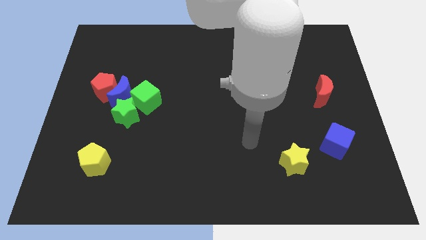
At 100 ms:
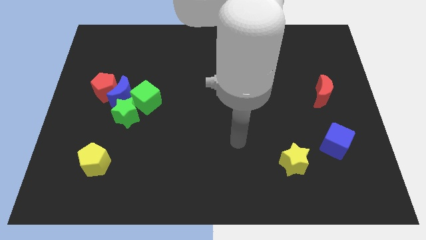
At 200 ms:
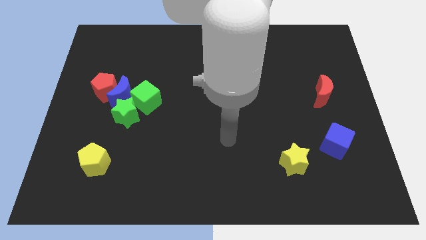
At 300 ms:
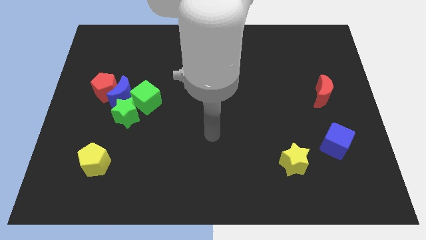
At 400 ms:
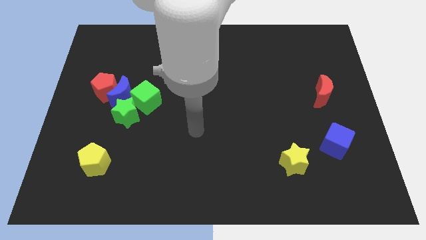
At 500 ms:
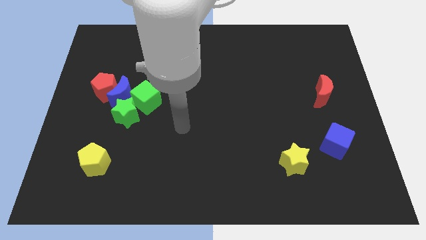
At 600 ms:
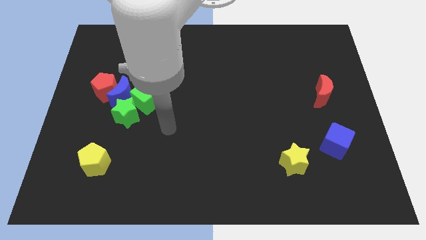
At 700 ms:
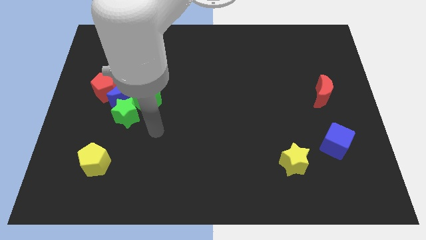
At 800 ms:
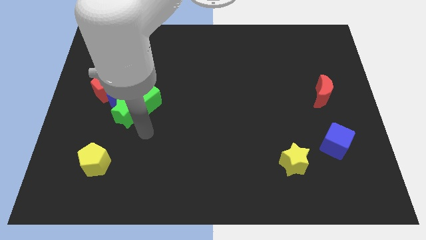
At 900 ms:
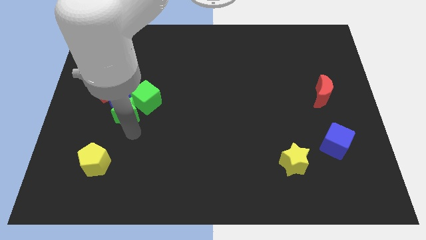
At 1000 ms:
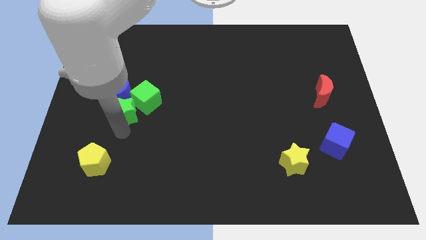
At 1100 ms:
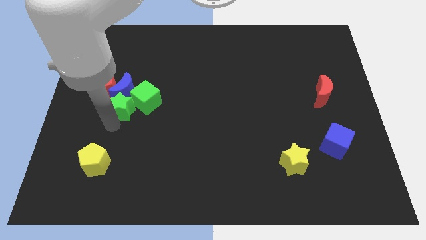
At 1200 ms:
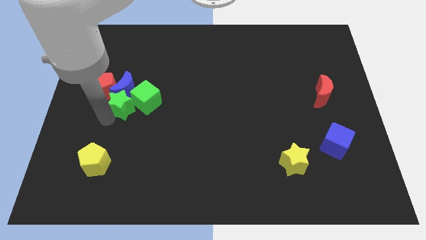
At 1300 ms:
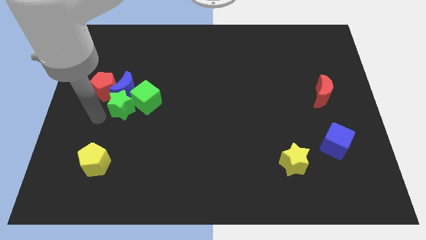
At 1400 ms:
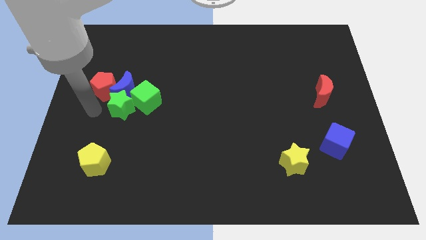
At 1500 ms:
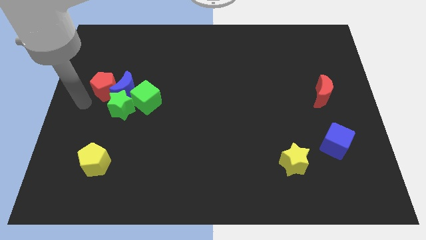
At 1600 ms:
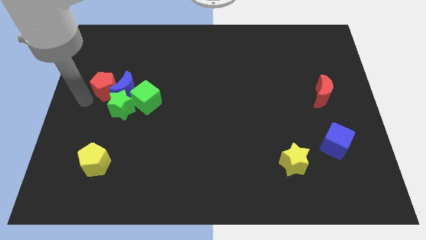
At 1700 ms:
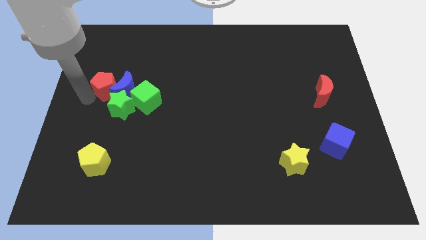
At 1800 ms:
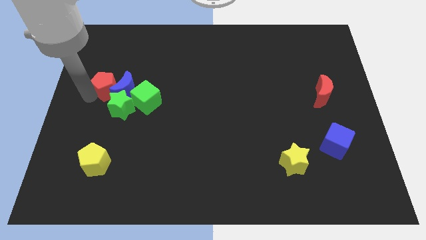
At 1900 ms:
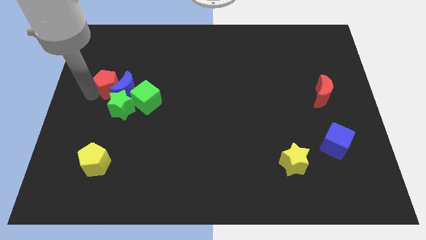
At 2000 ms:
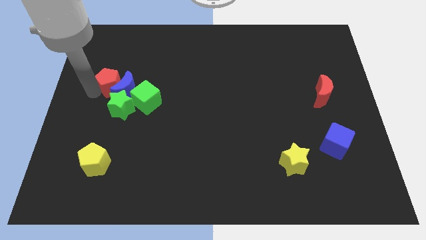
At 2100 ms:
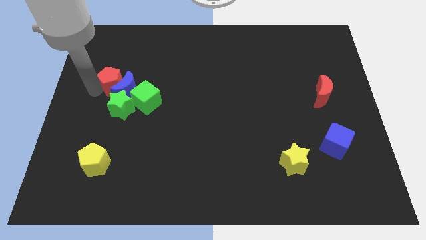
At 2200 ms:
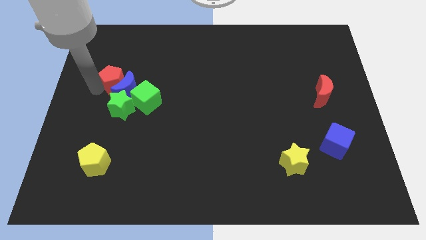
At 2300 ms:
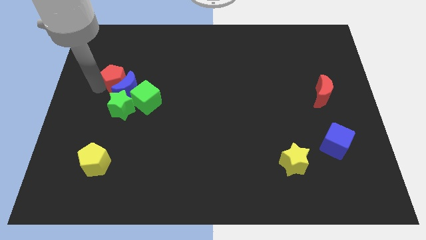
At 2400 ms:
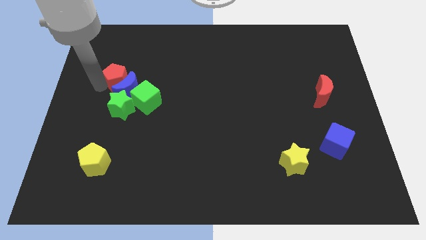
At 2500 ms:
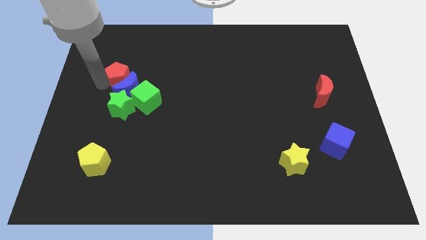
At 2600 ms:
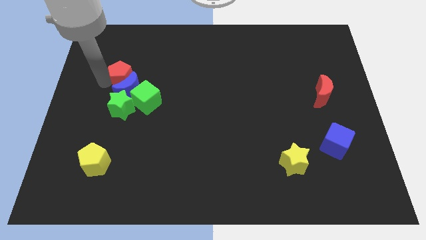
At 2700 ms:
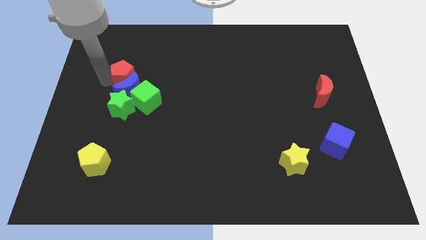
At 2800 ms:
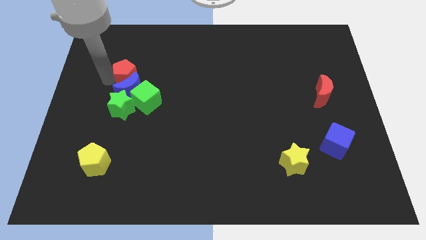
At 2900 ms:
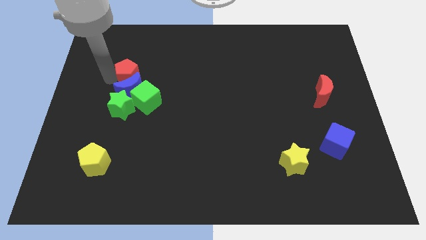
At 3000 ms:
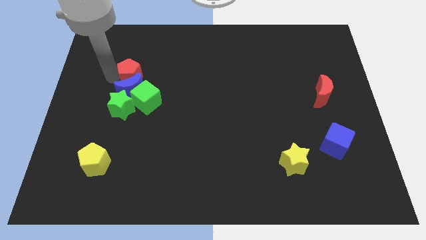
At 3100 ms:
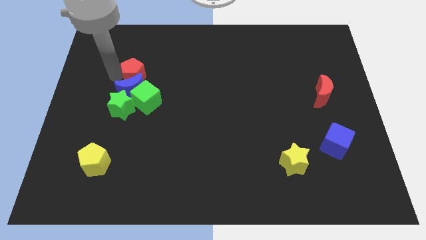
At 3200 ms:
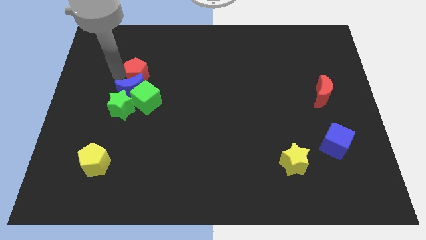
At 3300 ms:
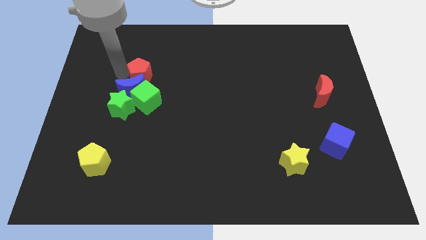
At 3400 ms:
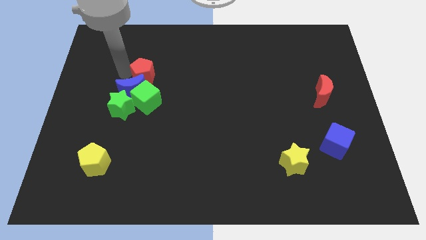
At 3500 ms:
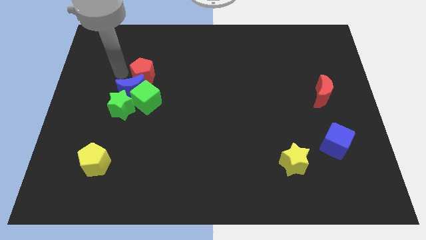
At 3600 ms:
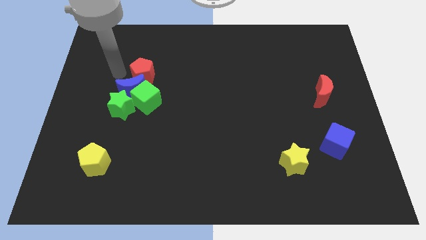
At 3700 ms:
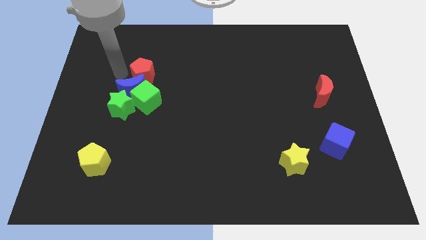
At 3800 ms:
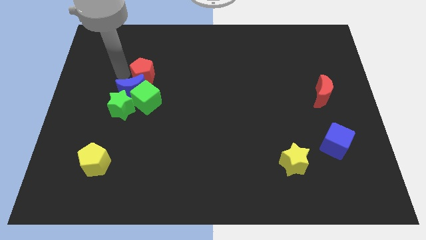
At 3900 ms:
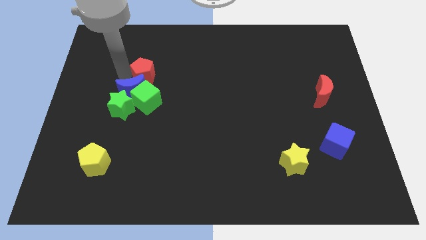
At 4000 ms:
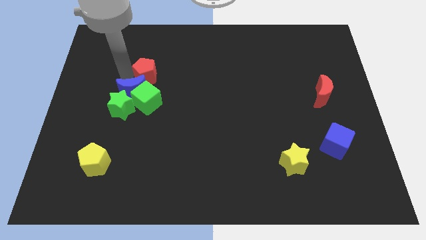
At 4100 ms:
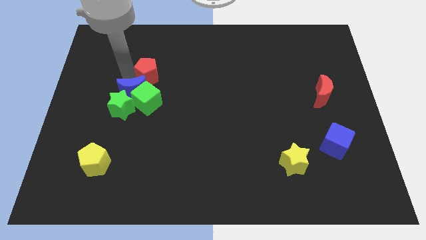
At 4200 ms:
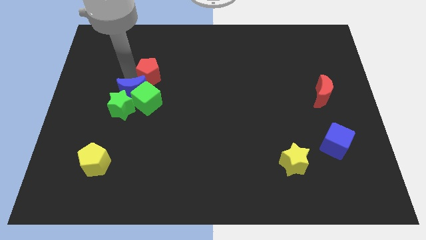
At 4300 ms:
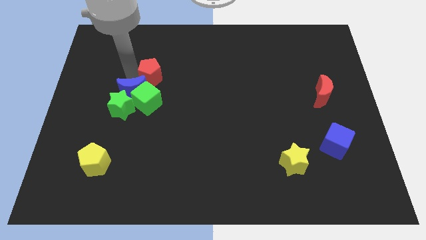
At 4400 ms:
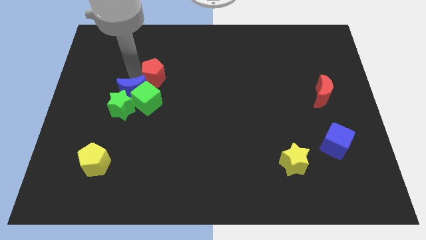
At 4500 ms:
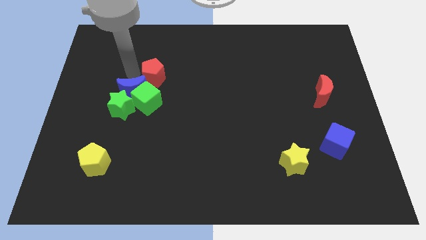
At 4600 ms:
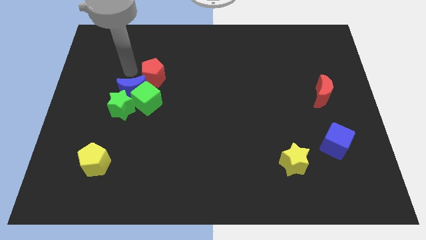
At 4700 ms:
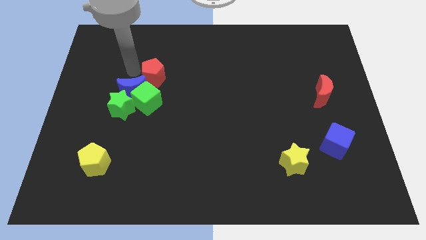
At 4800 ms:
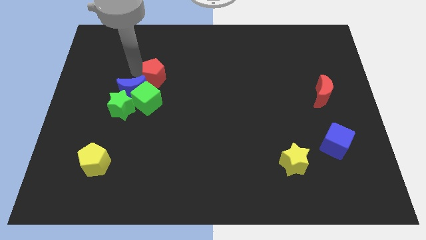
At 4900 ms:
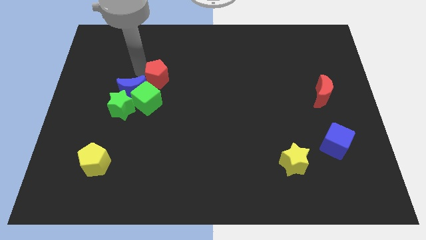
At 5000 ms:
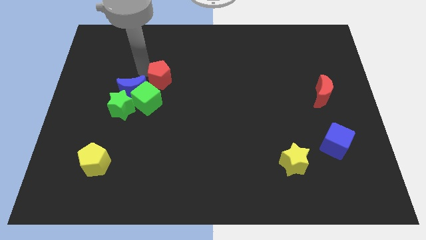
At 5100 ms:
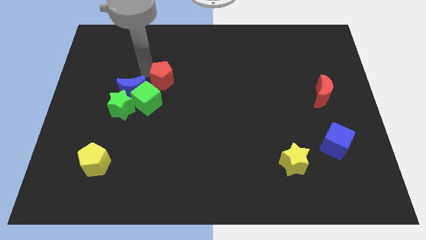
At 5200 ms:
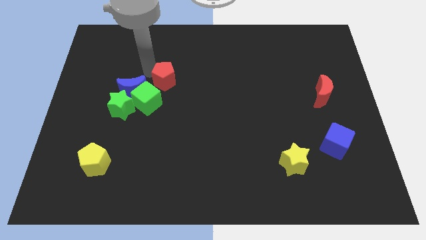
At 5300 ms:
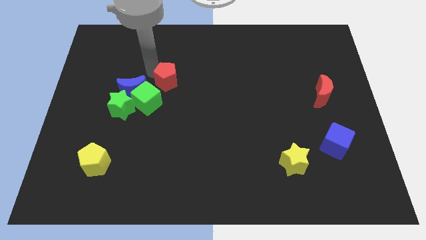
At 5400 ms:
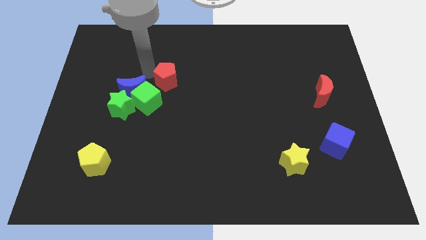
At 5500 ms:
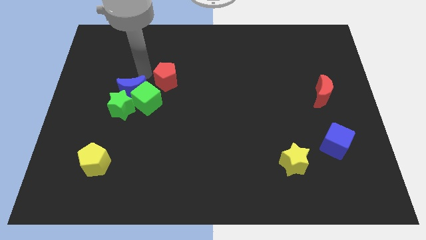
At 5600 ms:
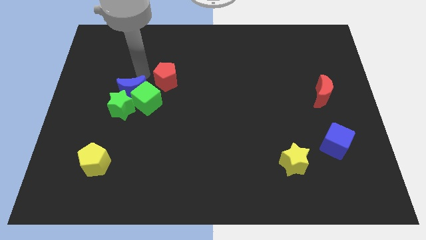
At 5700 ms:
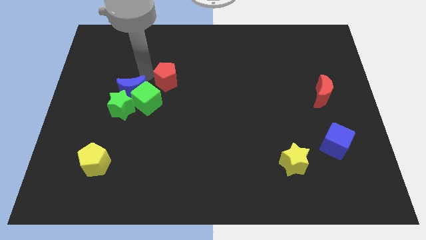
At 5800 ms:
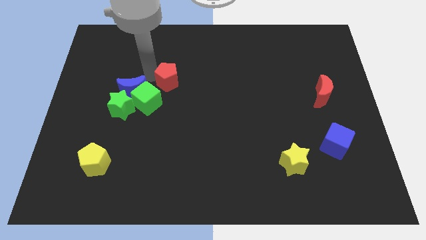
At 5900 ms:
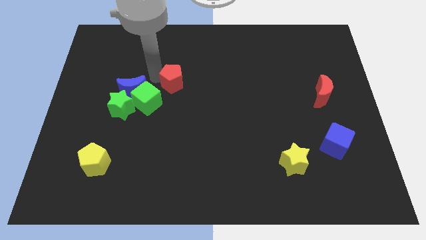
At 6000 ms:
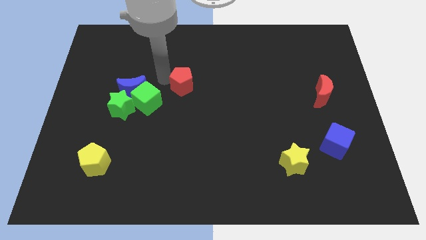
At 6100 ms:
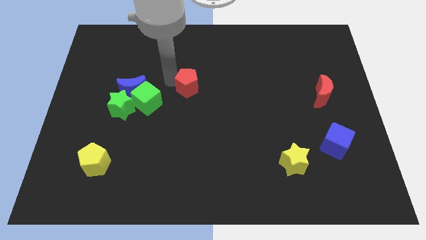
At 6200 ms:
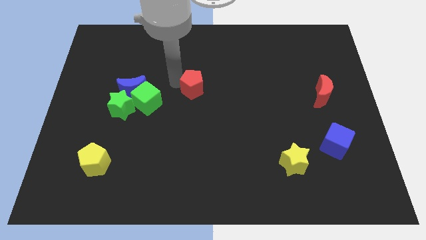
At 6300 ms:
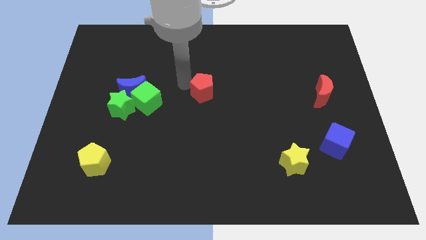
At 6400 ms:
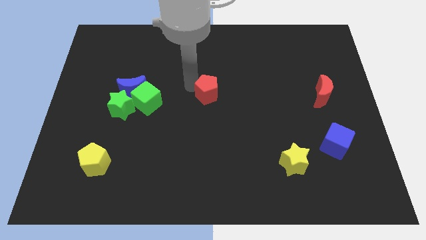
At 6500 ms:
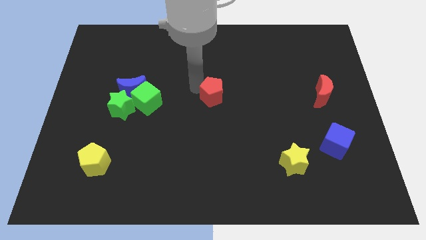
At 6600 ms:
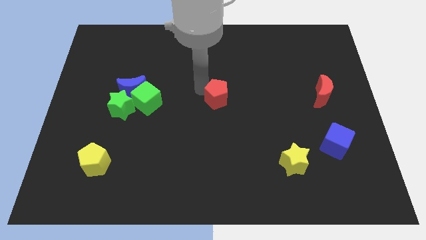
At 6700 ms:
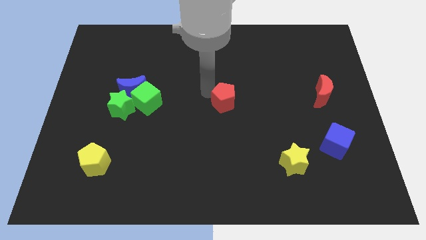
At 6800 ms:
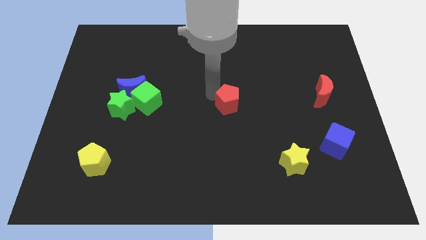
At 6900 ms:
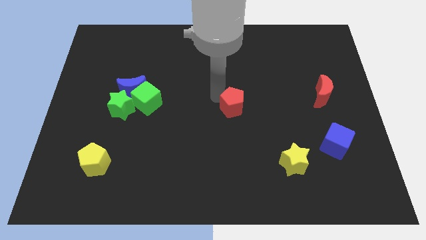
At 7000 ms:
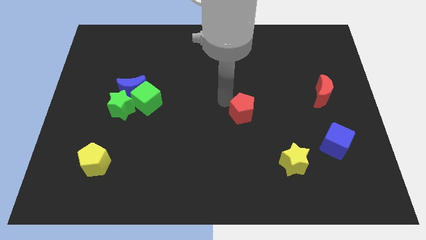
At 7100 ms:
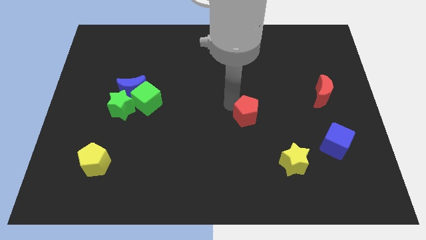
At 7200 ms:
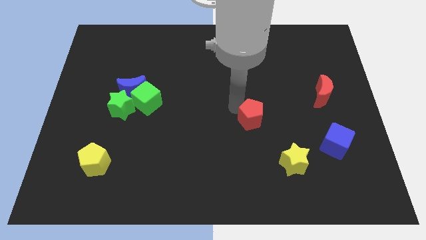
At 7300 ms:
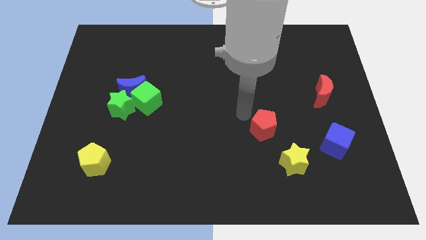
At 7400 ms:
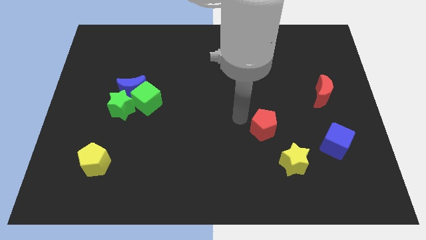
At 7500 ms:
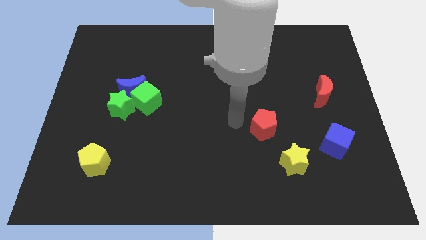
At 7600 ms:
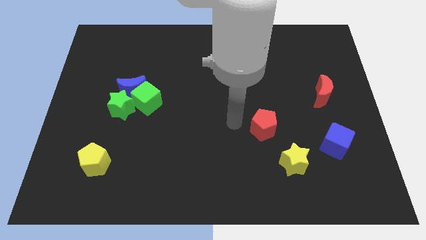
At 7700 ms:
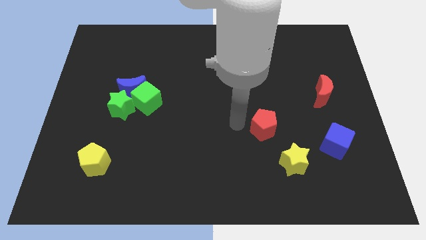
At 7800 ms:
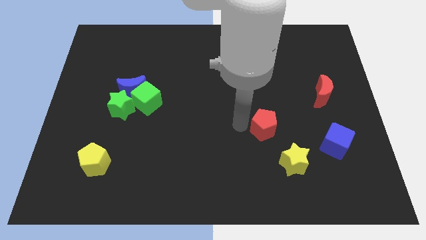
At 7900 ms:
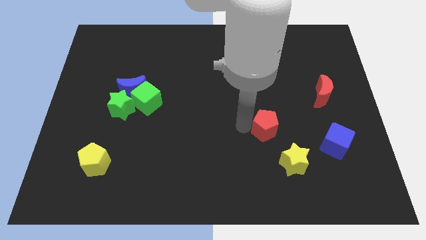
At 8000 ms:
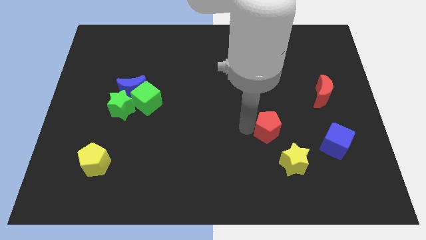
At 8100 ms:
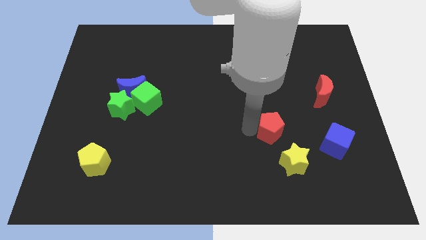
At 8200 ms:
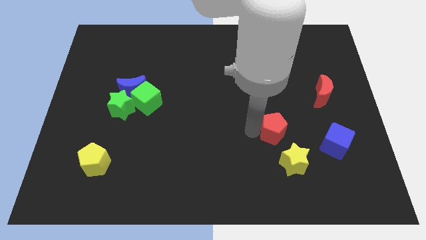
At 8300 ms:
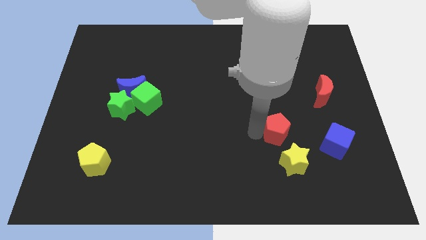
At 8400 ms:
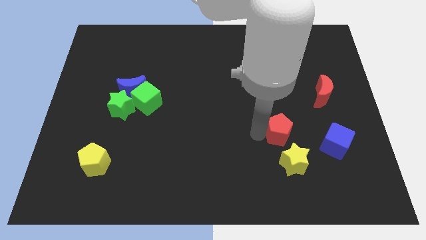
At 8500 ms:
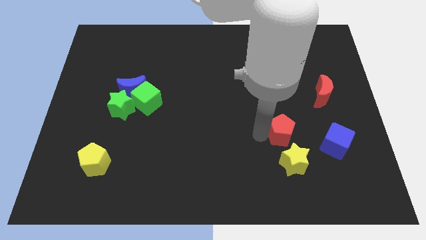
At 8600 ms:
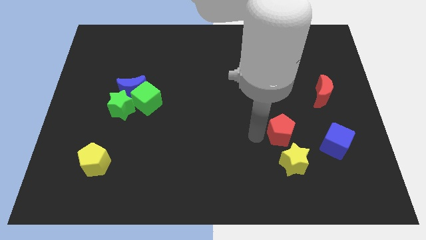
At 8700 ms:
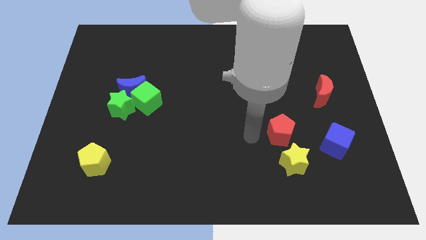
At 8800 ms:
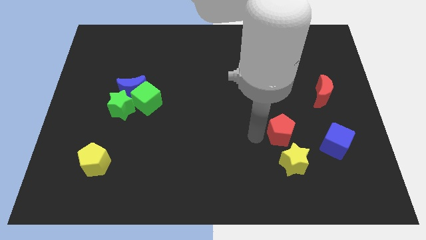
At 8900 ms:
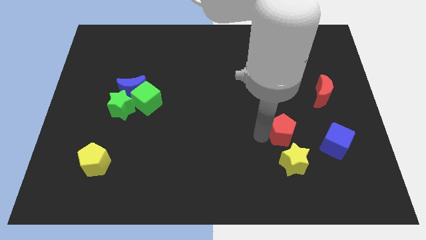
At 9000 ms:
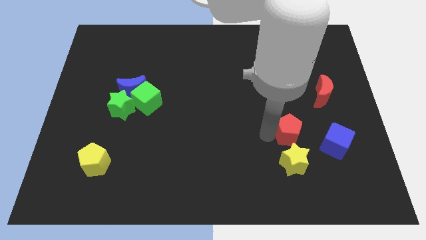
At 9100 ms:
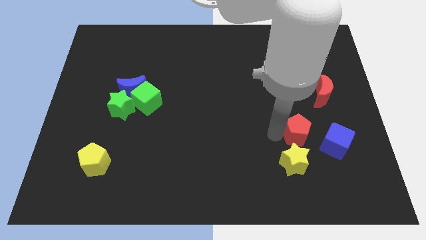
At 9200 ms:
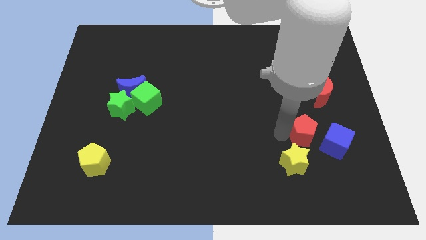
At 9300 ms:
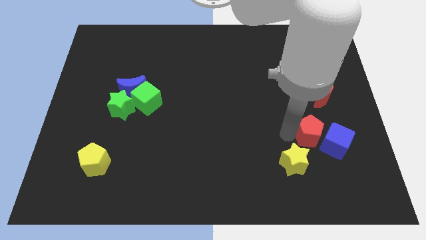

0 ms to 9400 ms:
push the red pentagon close to the blue cube
